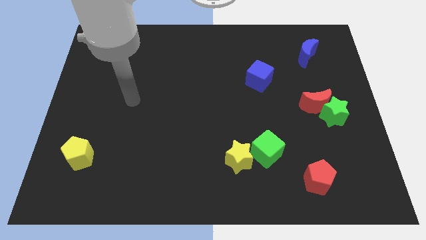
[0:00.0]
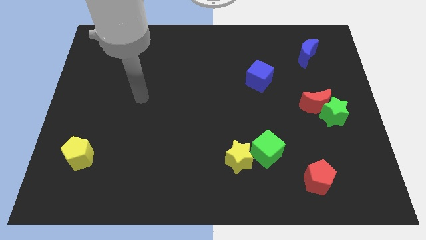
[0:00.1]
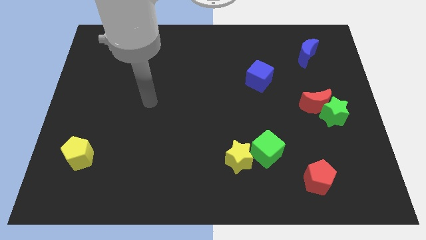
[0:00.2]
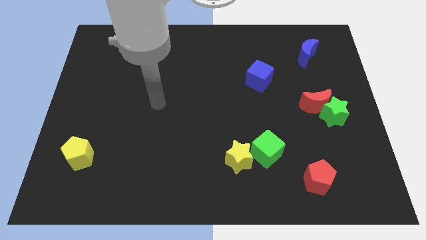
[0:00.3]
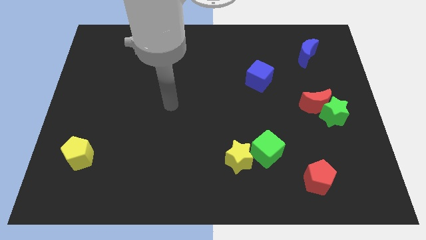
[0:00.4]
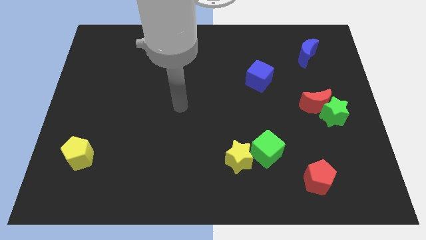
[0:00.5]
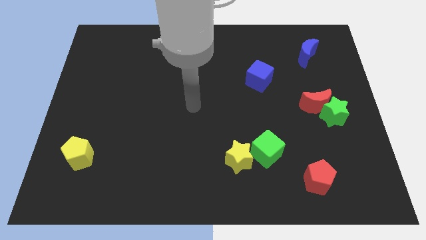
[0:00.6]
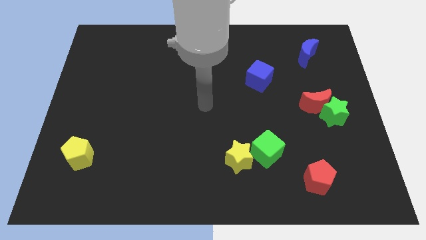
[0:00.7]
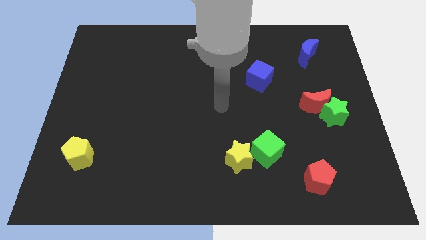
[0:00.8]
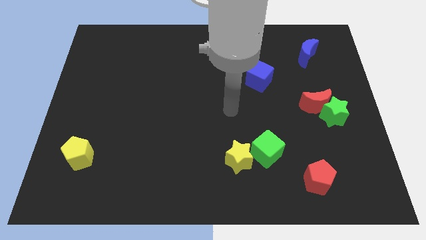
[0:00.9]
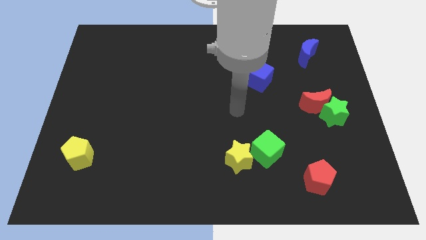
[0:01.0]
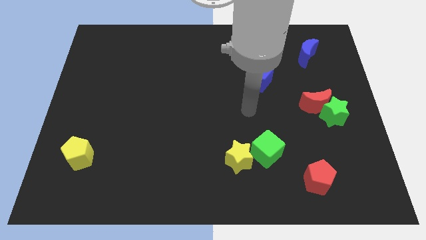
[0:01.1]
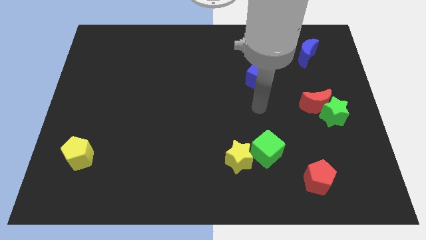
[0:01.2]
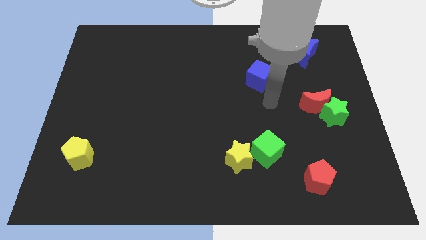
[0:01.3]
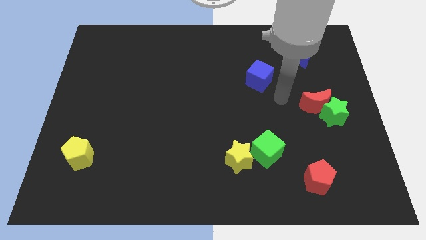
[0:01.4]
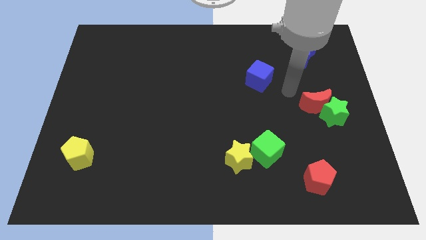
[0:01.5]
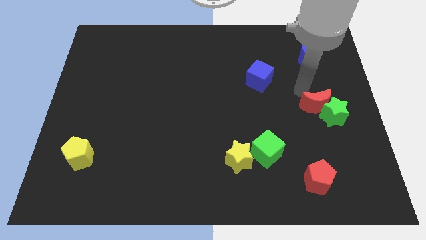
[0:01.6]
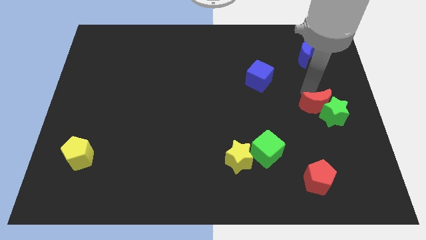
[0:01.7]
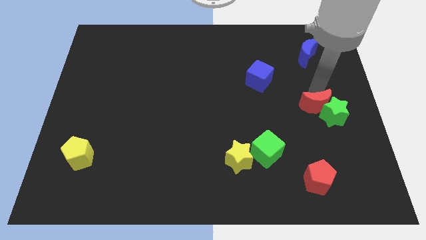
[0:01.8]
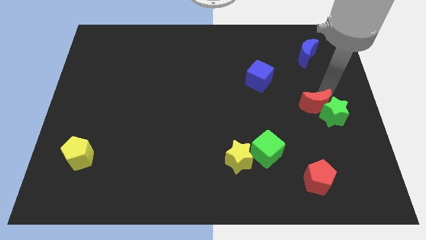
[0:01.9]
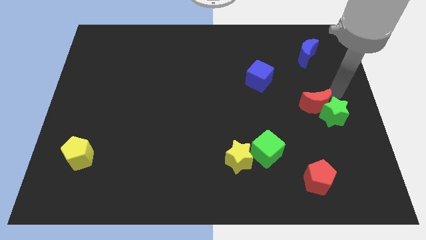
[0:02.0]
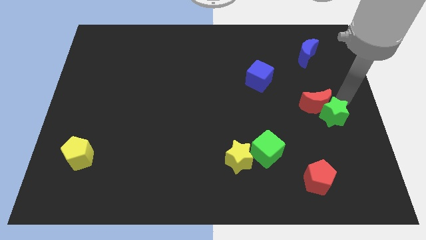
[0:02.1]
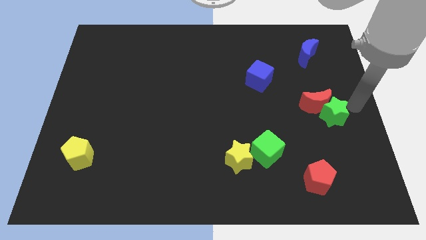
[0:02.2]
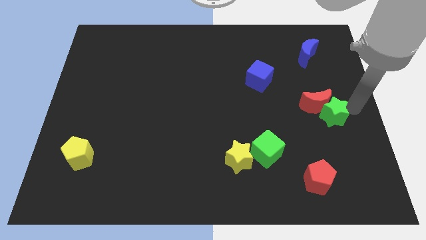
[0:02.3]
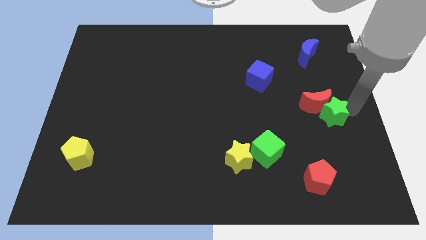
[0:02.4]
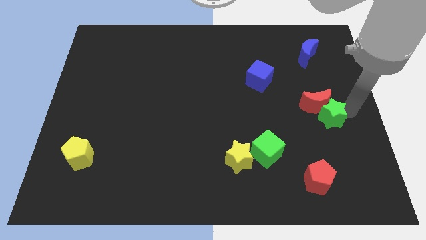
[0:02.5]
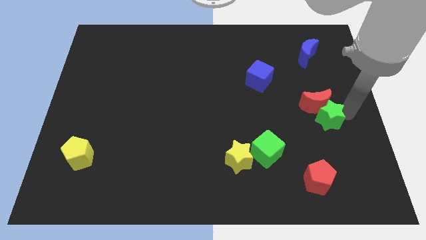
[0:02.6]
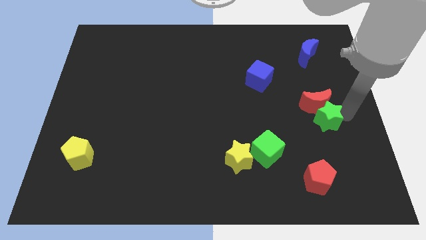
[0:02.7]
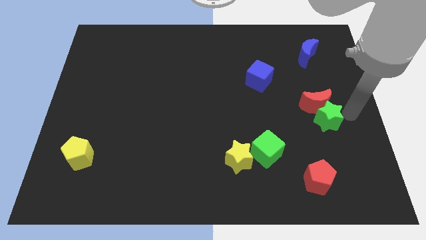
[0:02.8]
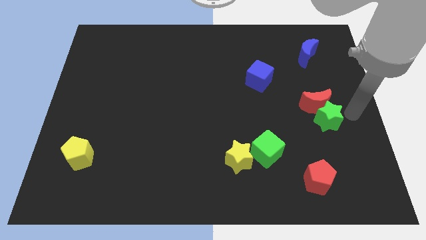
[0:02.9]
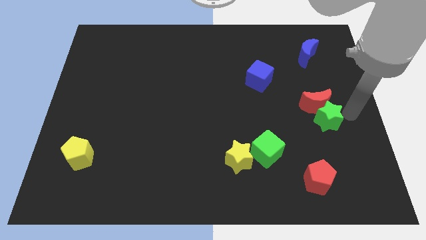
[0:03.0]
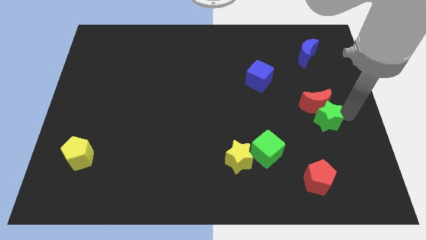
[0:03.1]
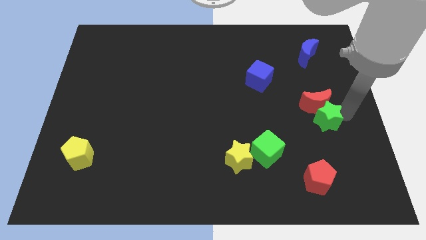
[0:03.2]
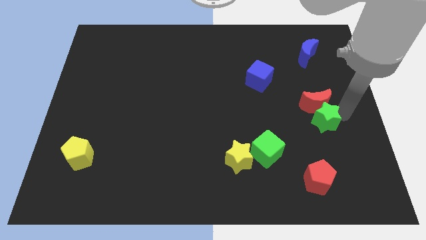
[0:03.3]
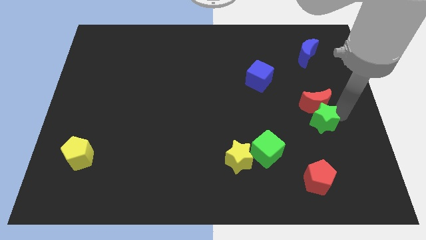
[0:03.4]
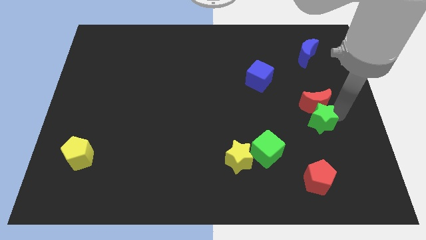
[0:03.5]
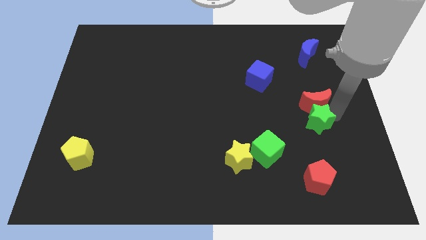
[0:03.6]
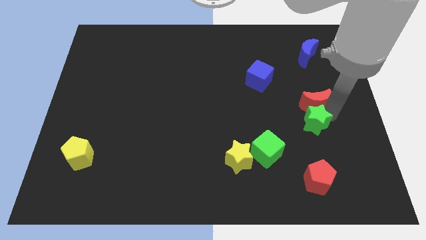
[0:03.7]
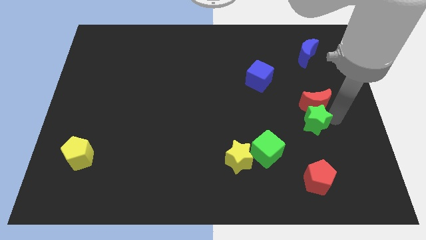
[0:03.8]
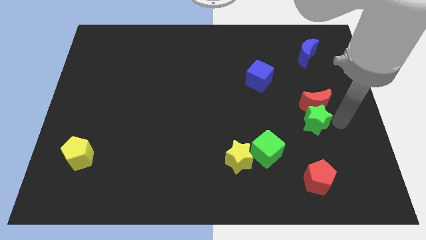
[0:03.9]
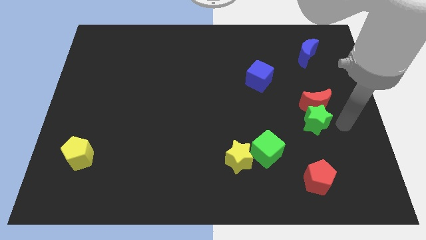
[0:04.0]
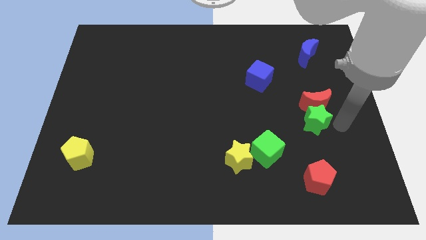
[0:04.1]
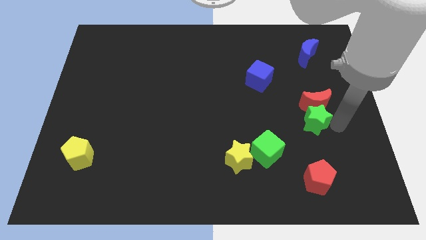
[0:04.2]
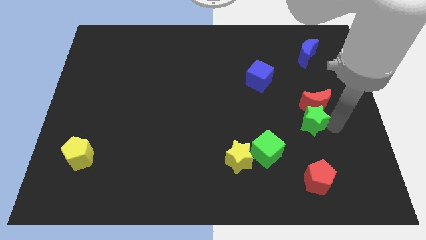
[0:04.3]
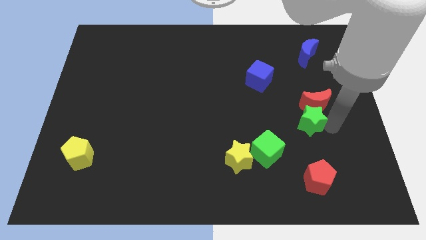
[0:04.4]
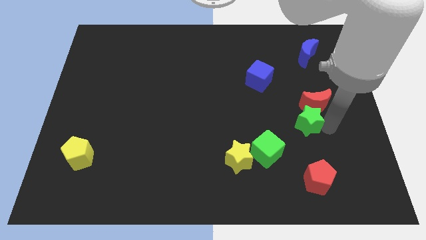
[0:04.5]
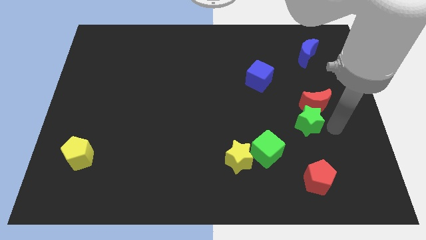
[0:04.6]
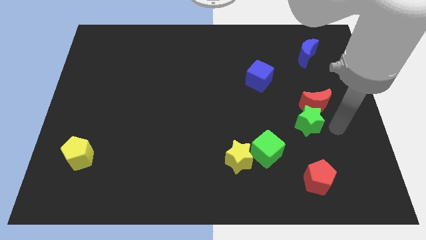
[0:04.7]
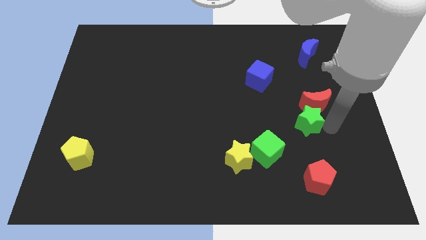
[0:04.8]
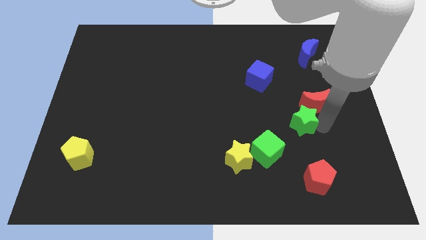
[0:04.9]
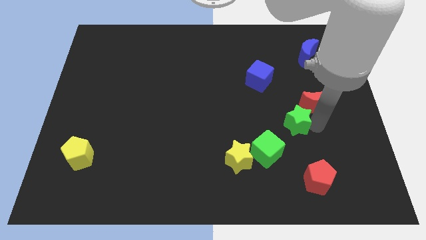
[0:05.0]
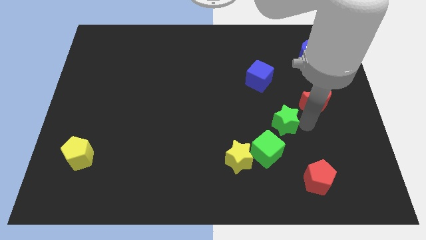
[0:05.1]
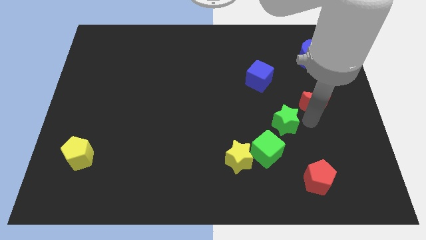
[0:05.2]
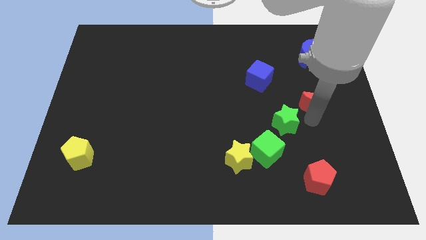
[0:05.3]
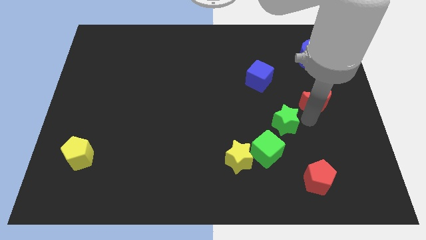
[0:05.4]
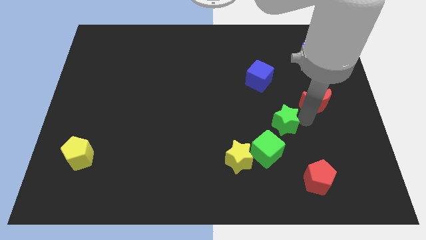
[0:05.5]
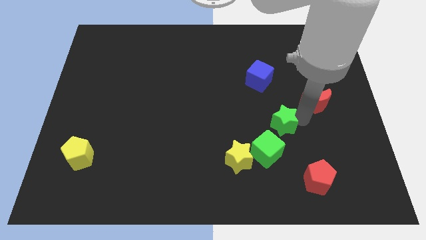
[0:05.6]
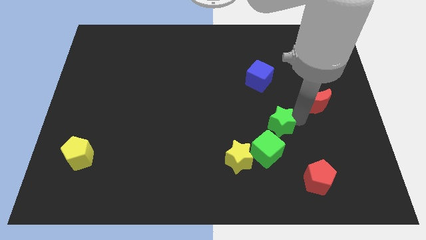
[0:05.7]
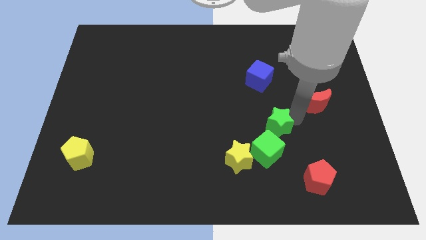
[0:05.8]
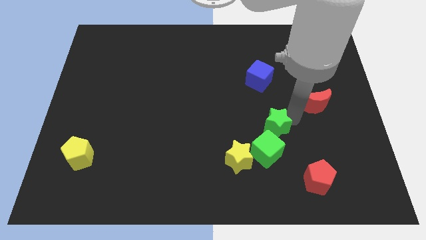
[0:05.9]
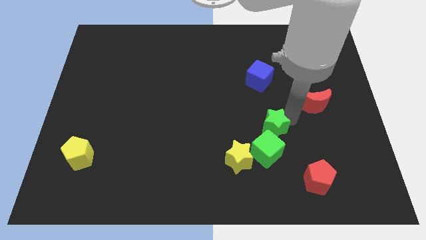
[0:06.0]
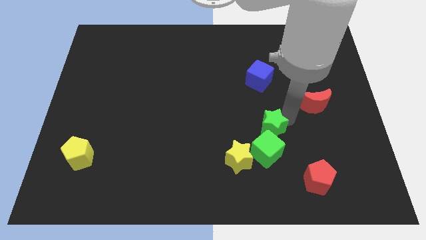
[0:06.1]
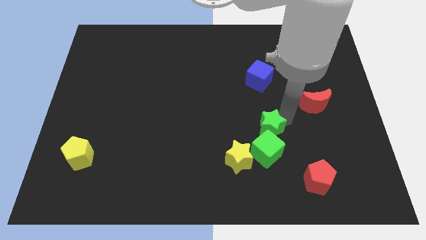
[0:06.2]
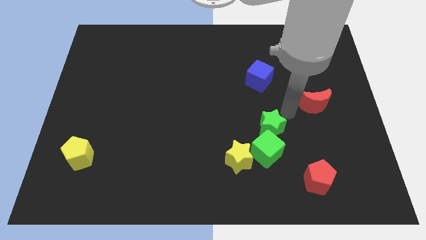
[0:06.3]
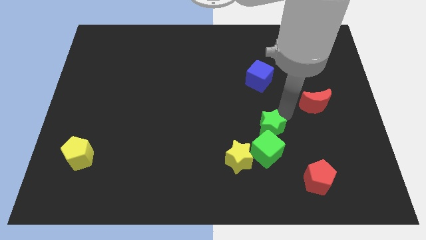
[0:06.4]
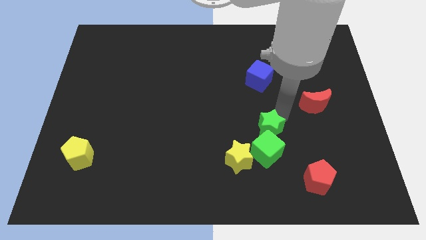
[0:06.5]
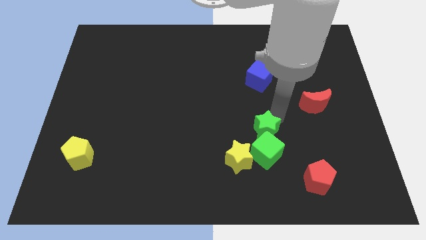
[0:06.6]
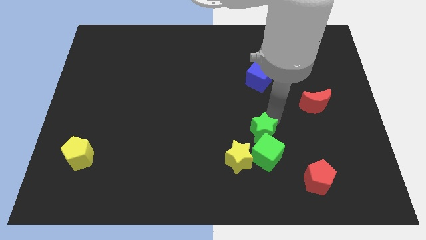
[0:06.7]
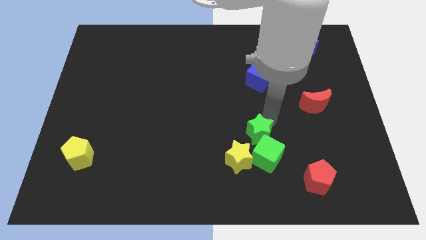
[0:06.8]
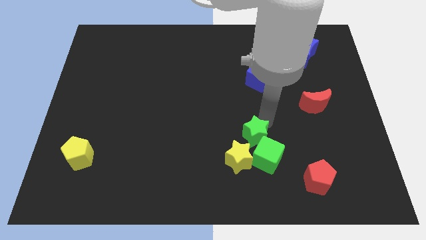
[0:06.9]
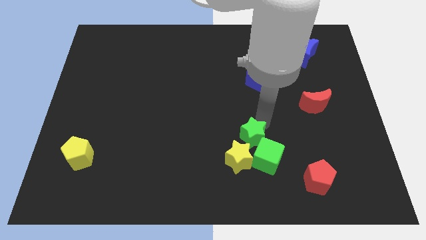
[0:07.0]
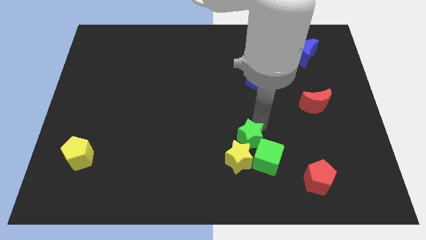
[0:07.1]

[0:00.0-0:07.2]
put the green star towards the yellow star
